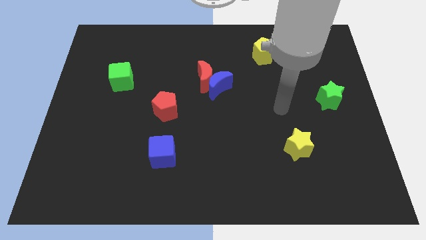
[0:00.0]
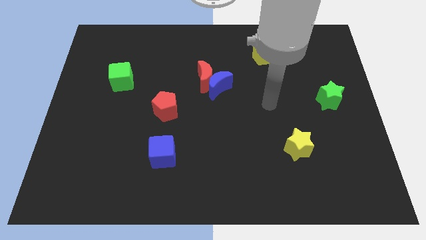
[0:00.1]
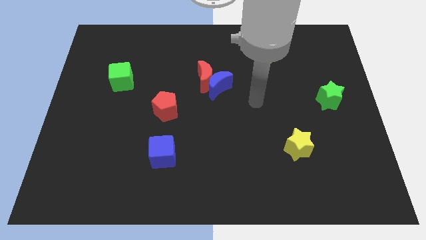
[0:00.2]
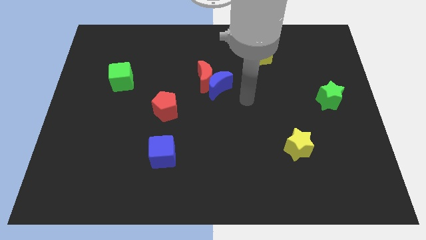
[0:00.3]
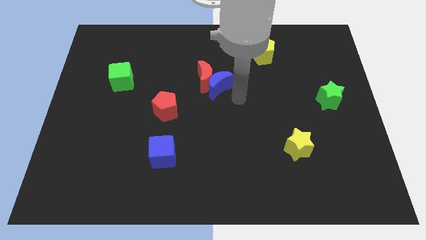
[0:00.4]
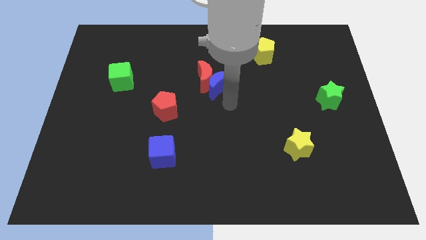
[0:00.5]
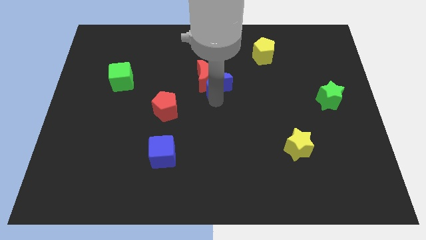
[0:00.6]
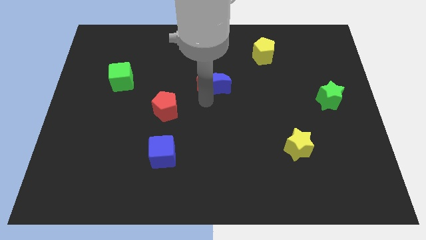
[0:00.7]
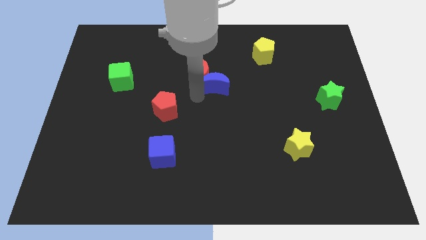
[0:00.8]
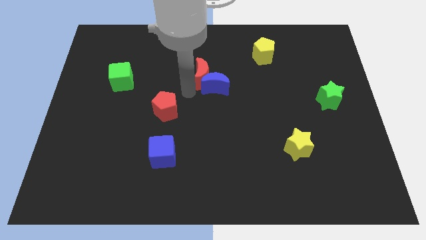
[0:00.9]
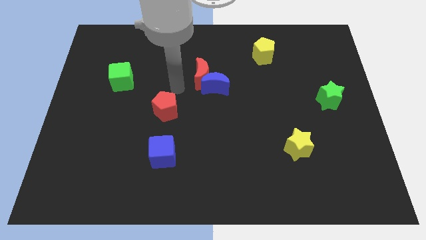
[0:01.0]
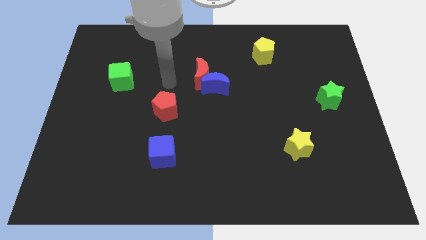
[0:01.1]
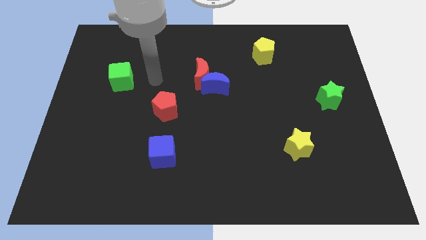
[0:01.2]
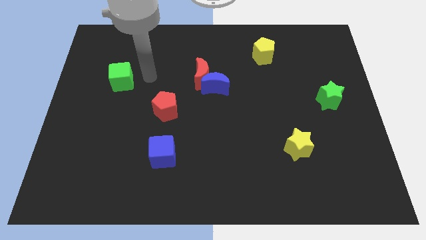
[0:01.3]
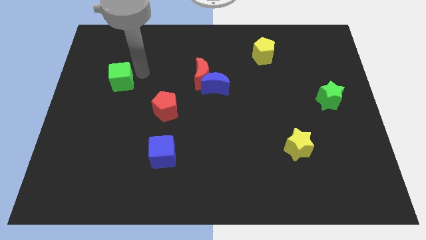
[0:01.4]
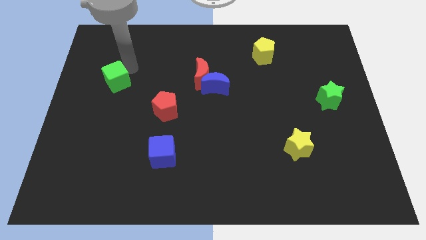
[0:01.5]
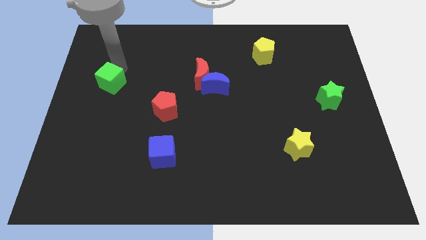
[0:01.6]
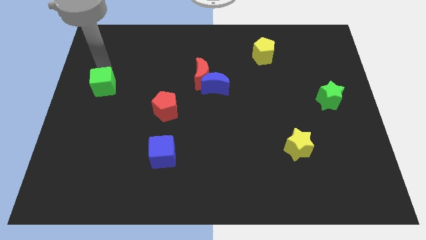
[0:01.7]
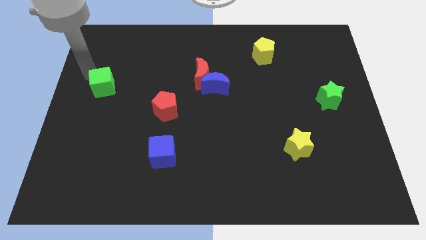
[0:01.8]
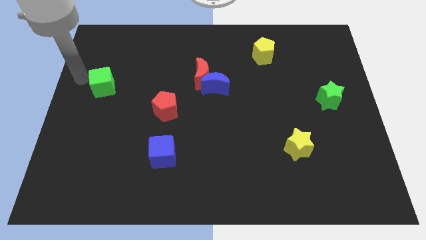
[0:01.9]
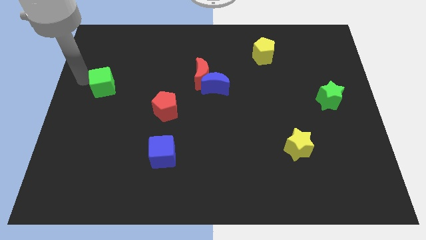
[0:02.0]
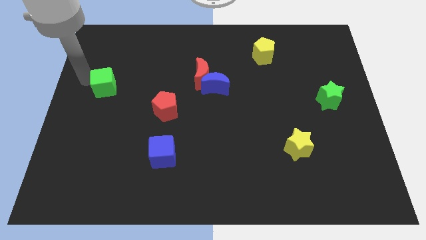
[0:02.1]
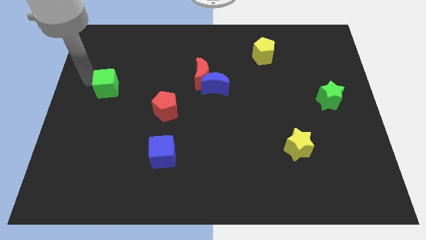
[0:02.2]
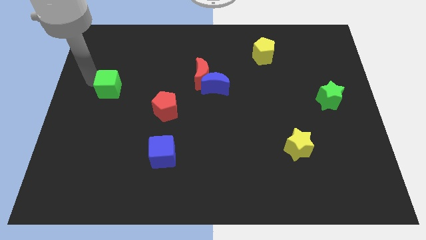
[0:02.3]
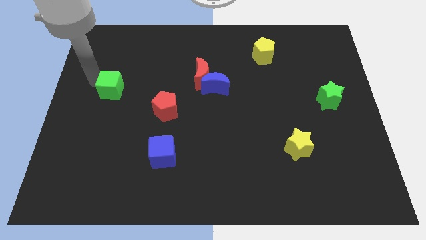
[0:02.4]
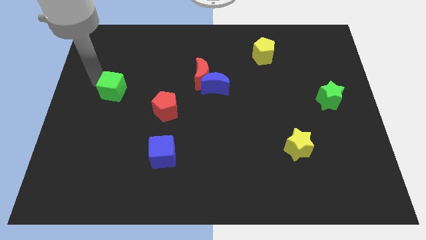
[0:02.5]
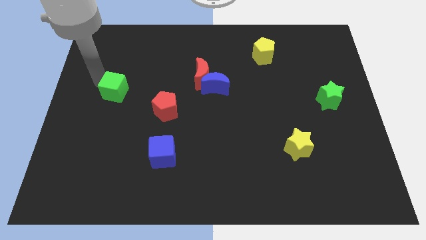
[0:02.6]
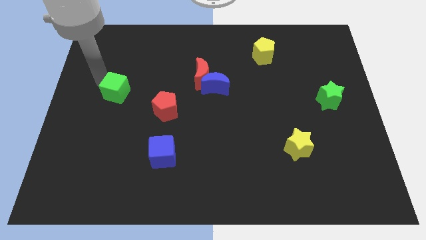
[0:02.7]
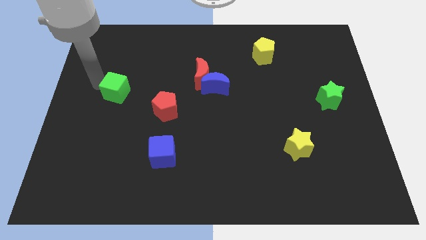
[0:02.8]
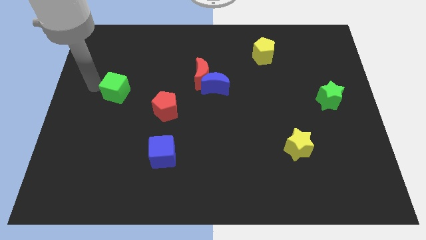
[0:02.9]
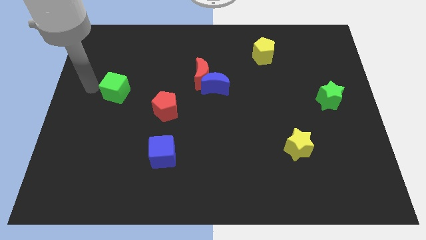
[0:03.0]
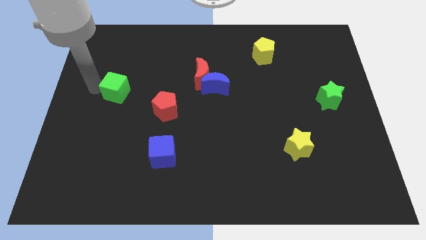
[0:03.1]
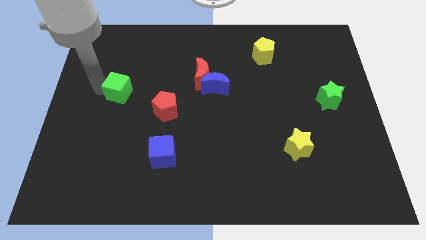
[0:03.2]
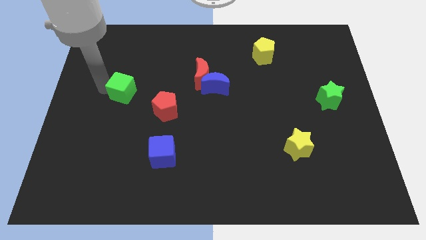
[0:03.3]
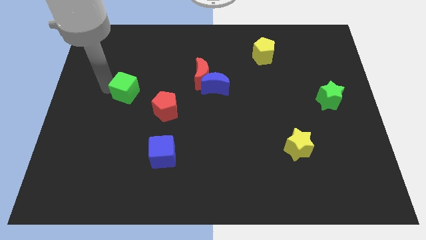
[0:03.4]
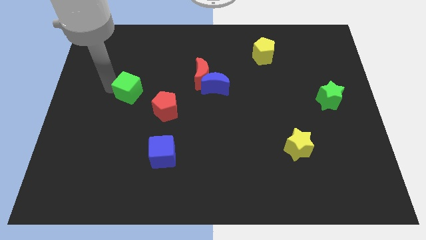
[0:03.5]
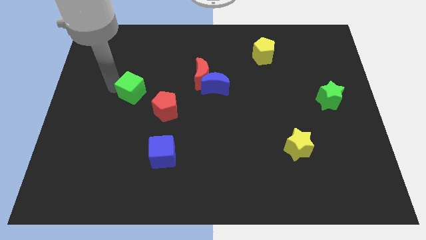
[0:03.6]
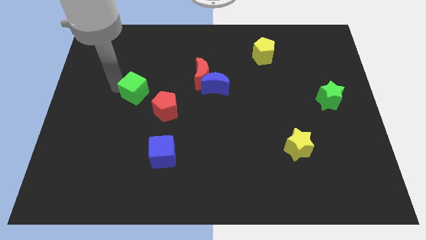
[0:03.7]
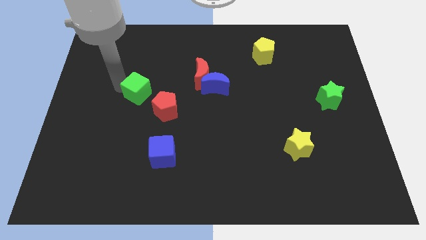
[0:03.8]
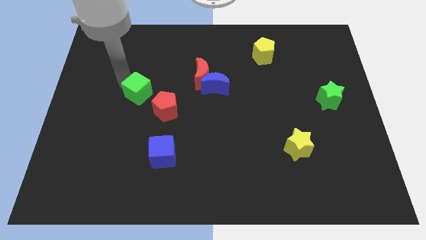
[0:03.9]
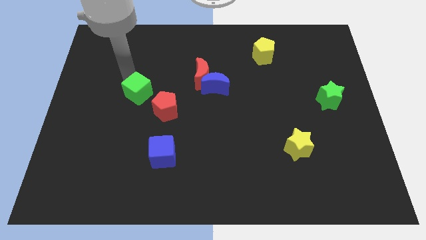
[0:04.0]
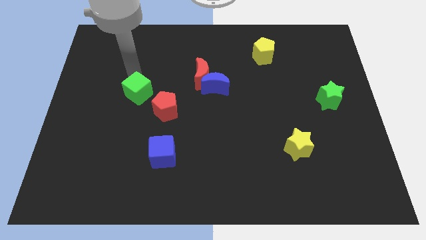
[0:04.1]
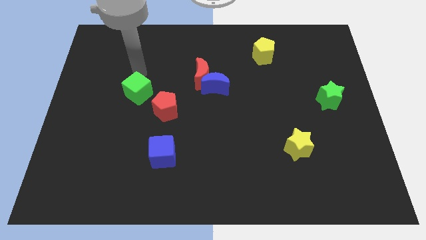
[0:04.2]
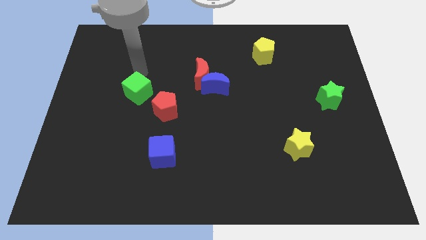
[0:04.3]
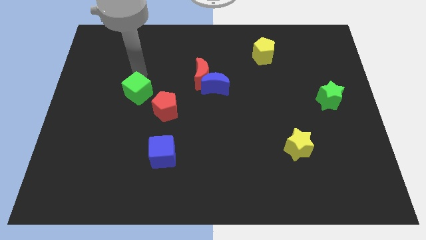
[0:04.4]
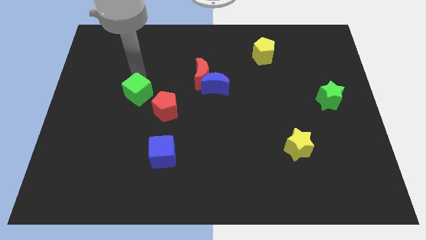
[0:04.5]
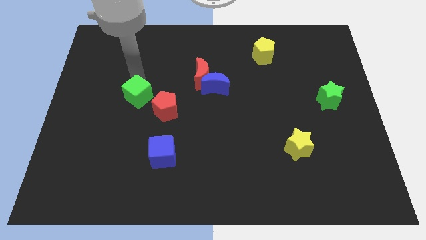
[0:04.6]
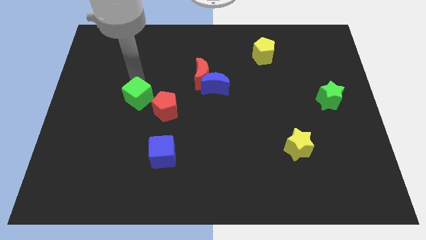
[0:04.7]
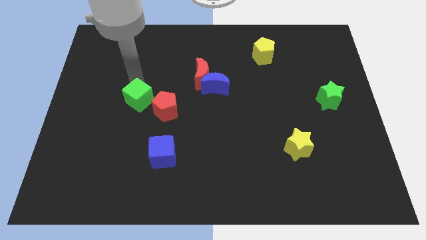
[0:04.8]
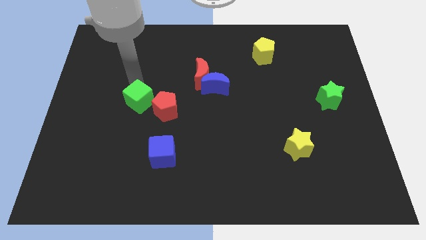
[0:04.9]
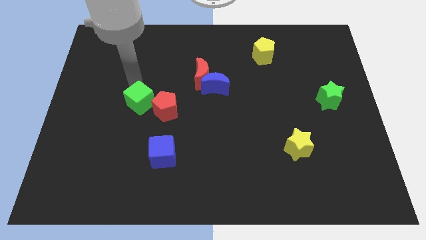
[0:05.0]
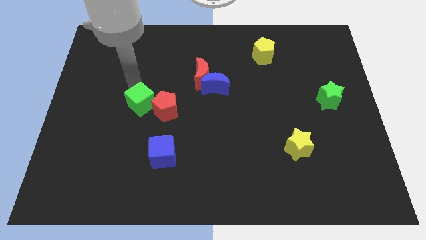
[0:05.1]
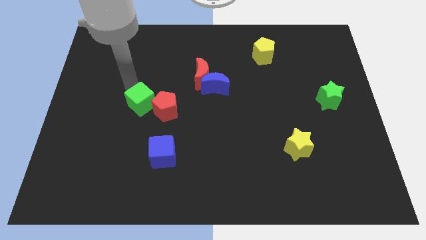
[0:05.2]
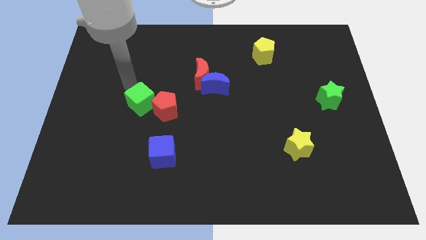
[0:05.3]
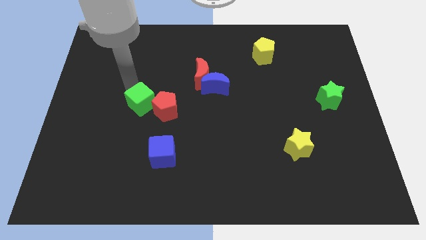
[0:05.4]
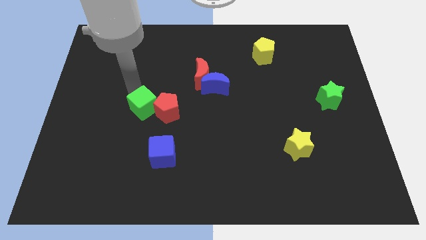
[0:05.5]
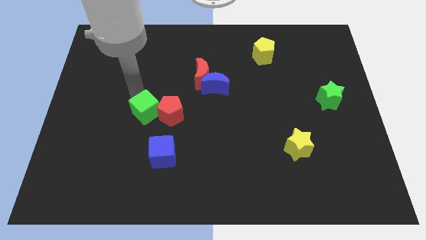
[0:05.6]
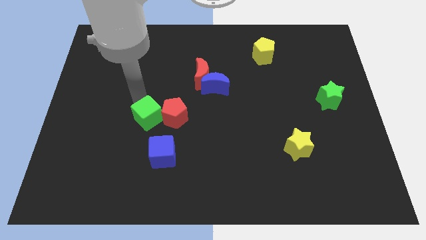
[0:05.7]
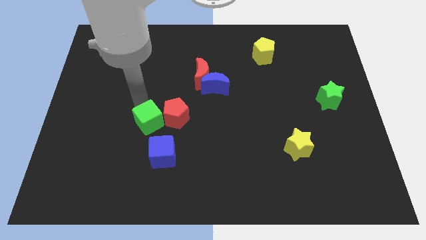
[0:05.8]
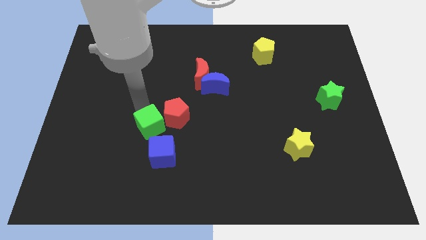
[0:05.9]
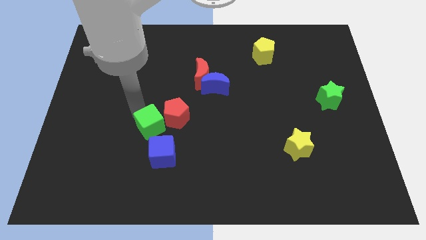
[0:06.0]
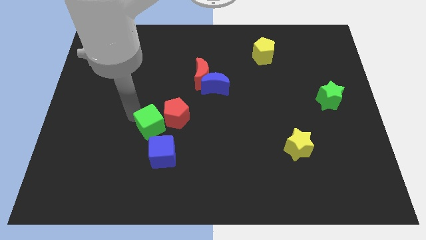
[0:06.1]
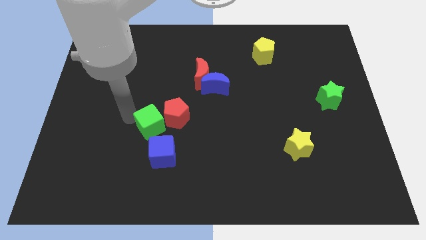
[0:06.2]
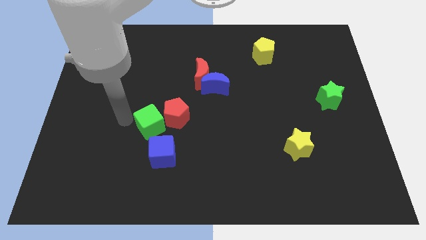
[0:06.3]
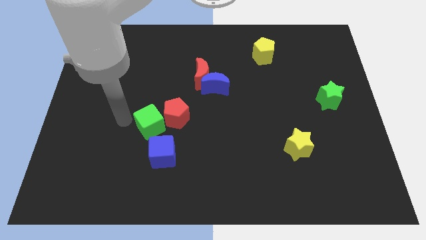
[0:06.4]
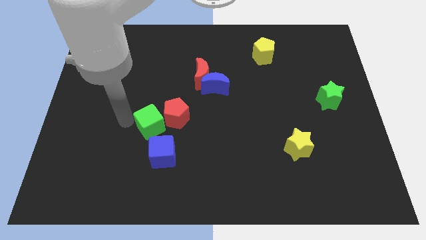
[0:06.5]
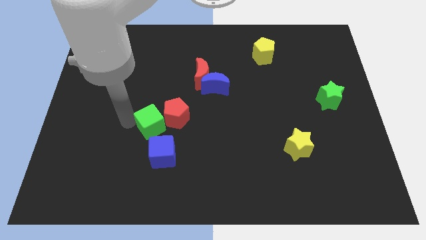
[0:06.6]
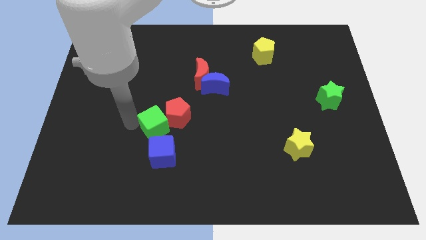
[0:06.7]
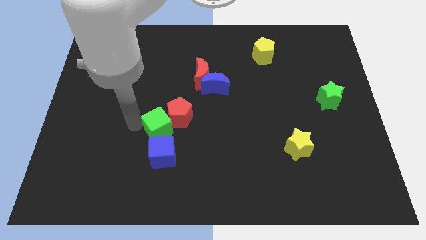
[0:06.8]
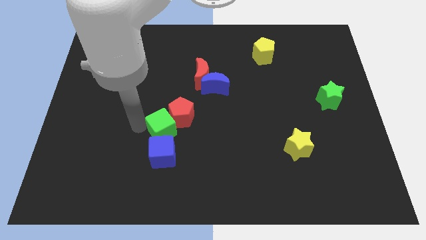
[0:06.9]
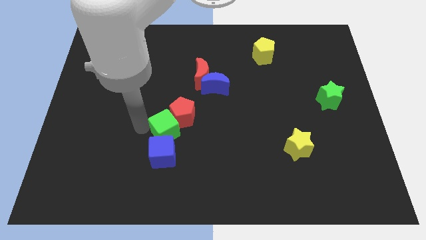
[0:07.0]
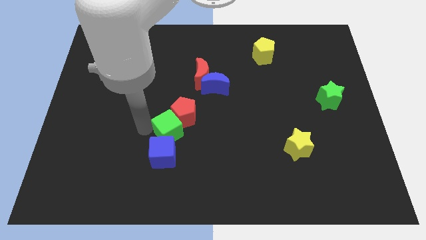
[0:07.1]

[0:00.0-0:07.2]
slide the green cube diagonally down and to the right

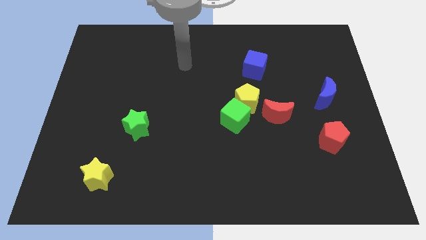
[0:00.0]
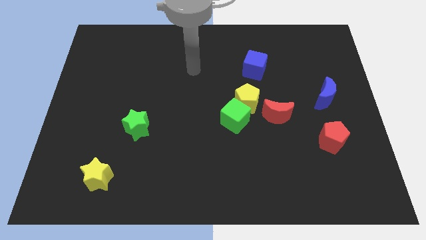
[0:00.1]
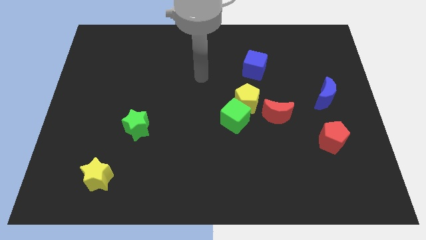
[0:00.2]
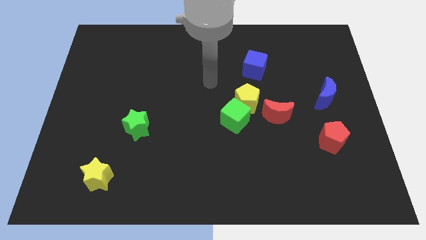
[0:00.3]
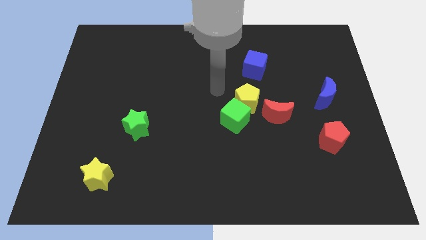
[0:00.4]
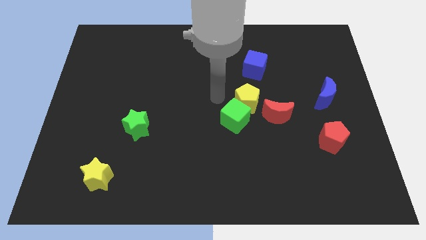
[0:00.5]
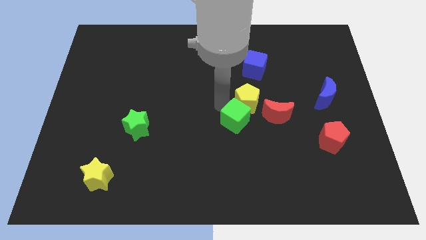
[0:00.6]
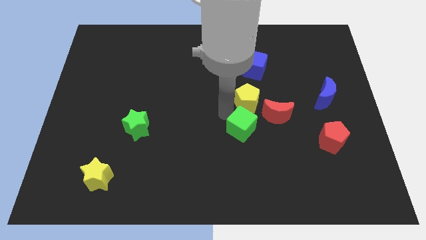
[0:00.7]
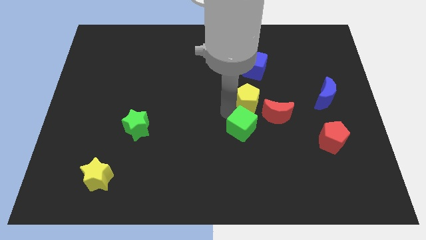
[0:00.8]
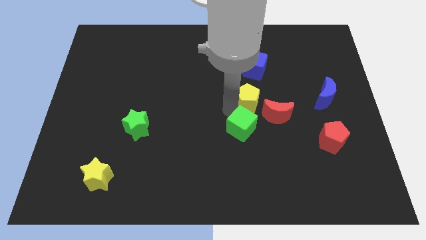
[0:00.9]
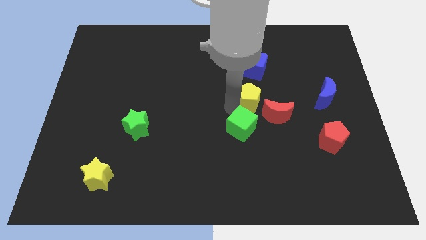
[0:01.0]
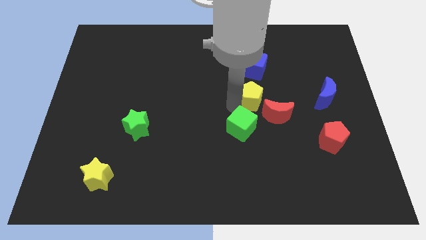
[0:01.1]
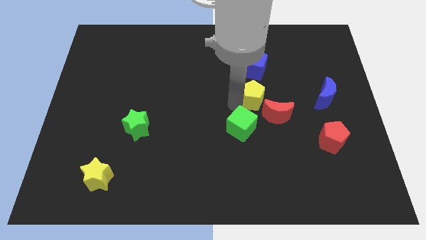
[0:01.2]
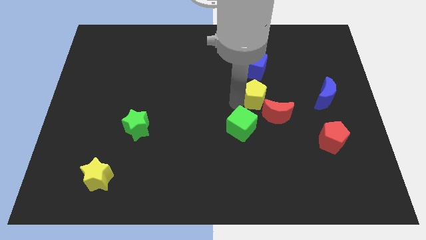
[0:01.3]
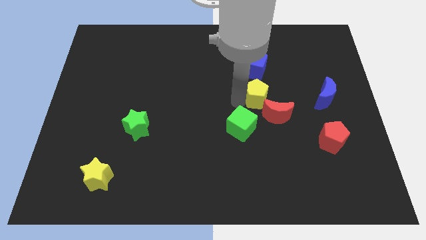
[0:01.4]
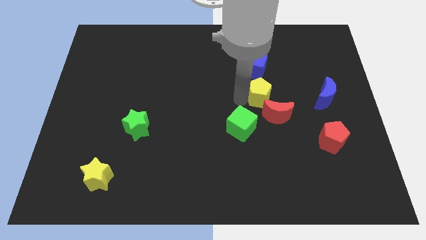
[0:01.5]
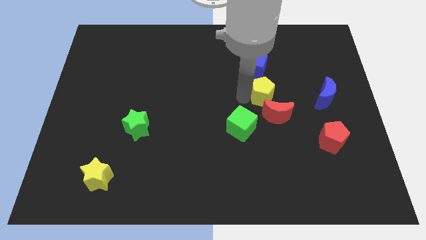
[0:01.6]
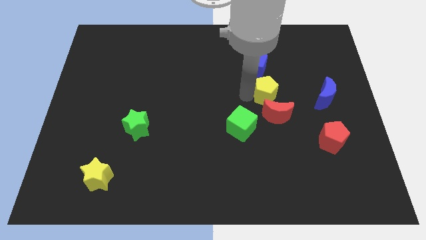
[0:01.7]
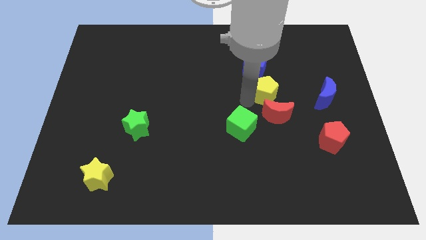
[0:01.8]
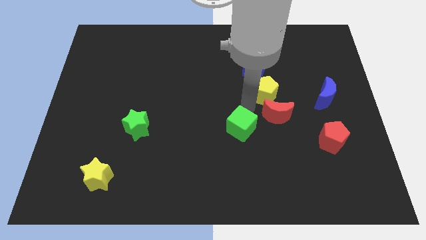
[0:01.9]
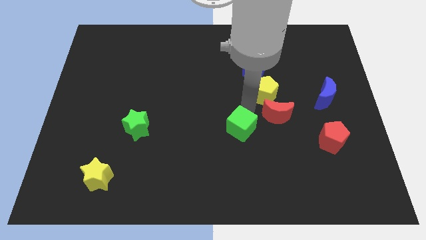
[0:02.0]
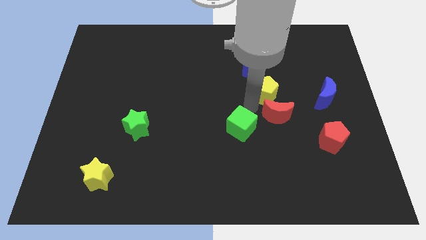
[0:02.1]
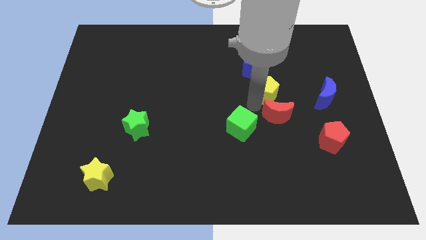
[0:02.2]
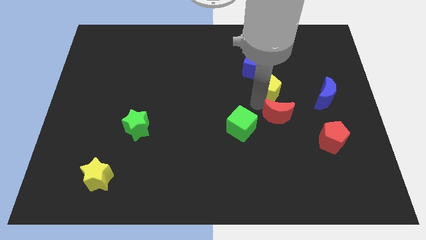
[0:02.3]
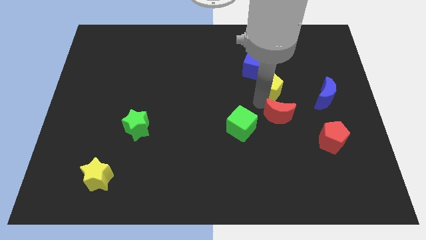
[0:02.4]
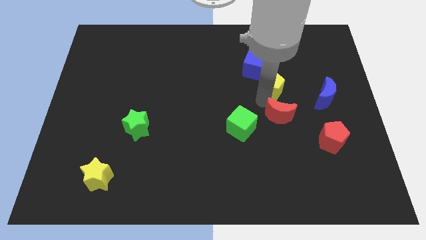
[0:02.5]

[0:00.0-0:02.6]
move the yellow pentagon a little diagonally up and right
